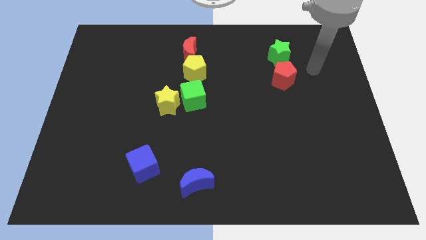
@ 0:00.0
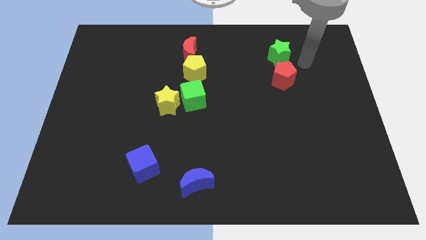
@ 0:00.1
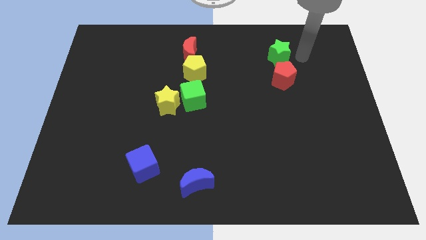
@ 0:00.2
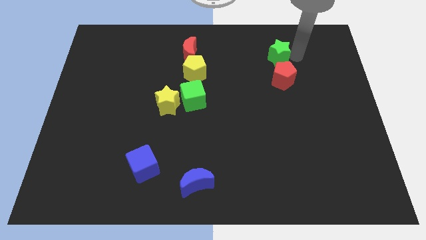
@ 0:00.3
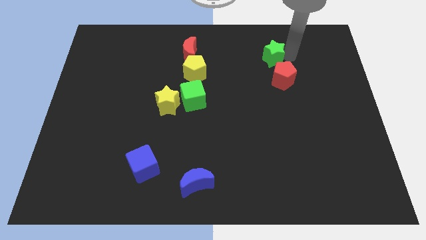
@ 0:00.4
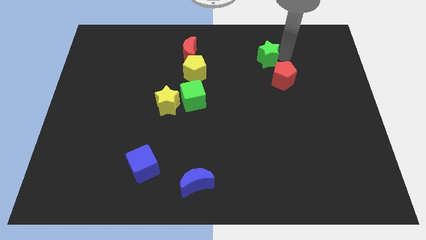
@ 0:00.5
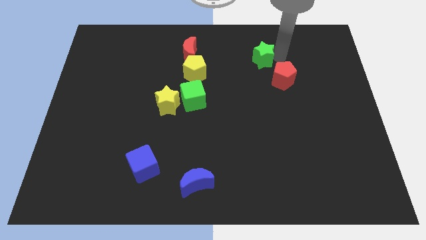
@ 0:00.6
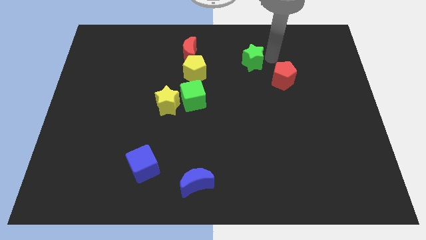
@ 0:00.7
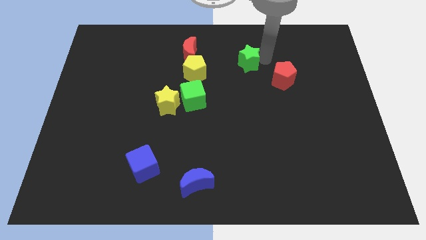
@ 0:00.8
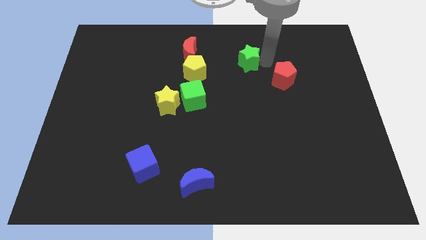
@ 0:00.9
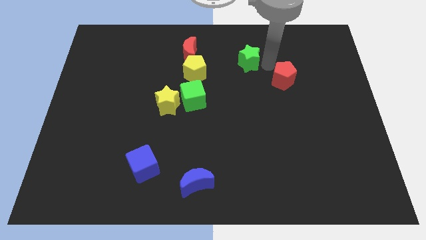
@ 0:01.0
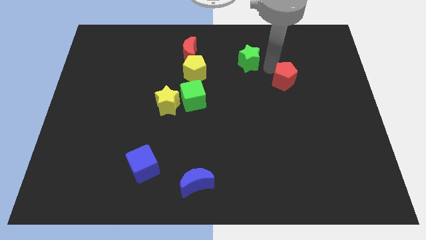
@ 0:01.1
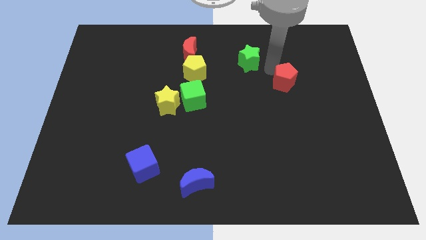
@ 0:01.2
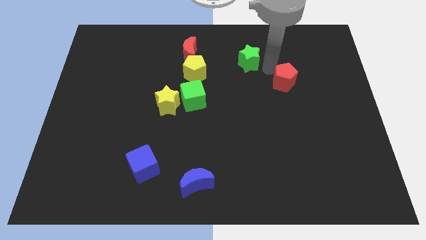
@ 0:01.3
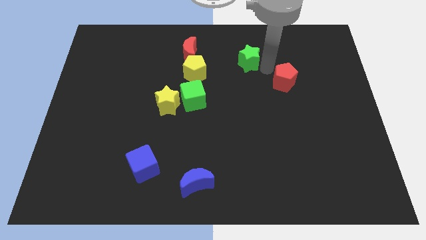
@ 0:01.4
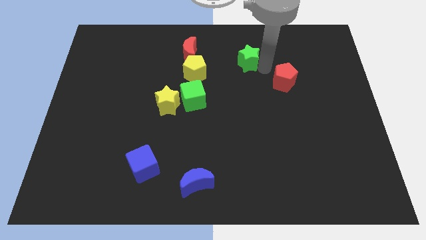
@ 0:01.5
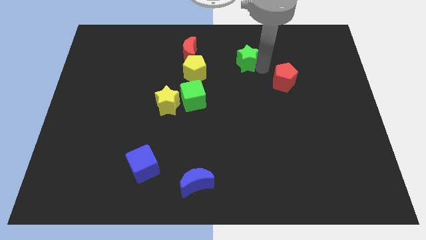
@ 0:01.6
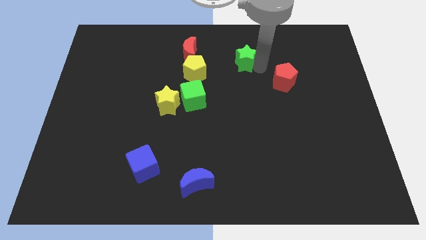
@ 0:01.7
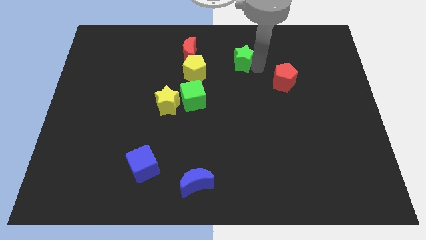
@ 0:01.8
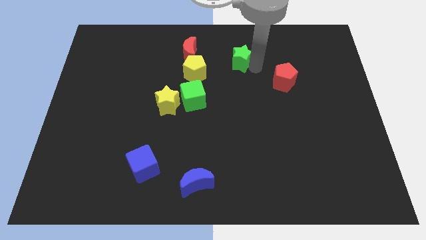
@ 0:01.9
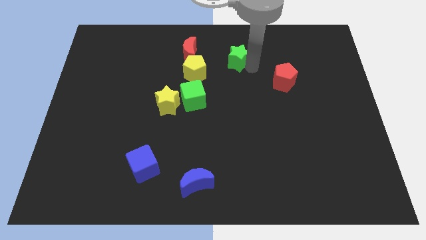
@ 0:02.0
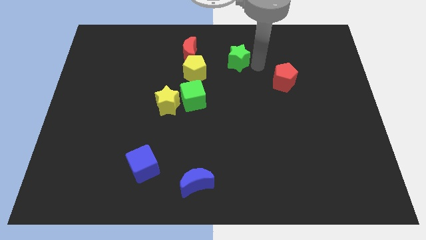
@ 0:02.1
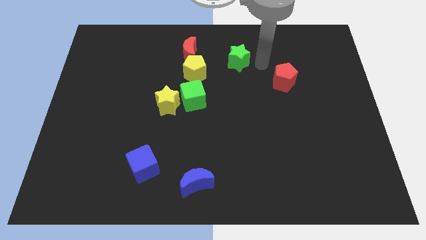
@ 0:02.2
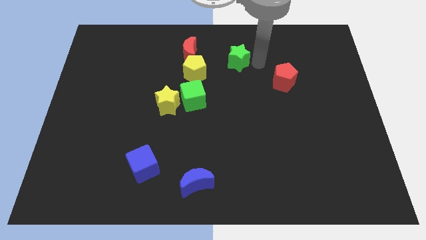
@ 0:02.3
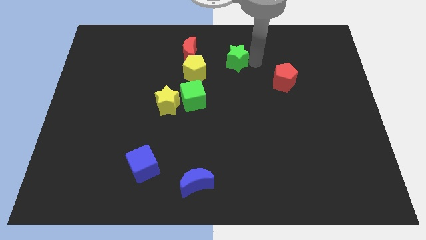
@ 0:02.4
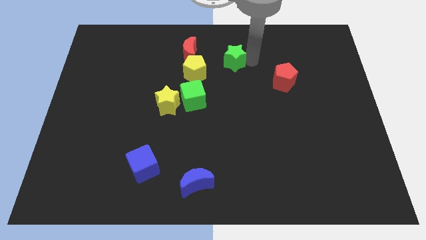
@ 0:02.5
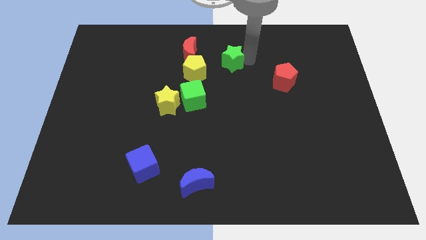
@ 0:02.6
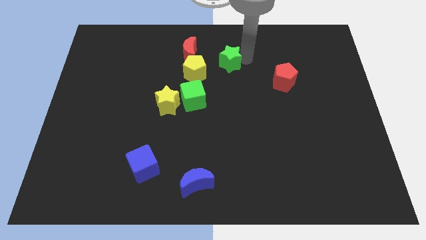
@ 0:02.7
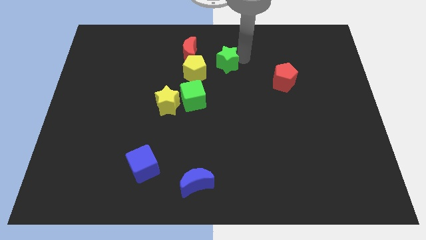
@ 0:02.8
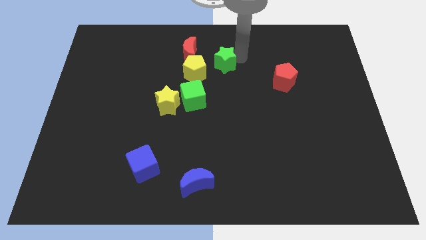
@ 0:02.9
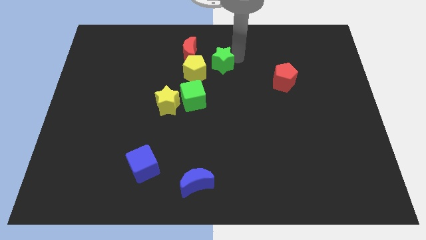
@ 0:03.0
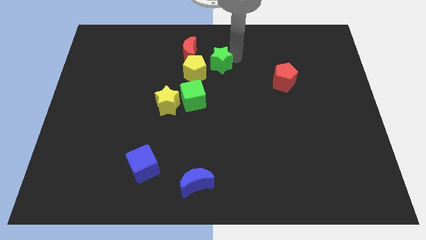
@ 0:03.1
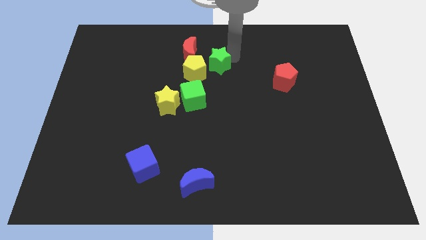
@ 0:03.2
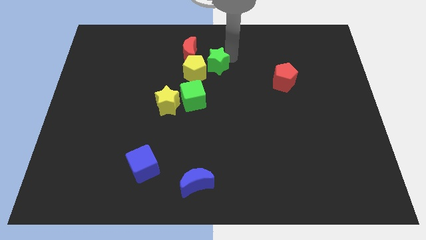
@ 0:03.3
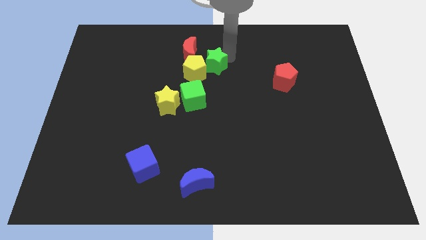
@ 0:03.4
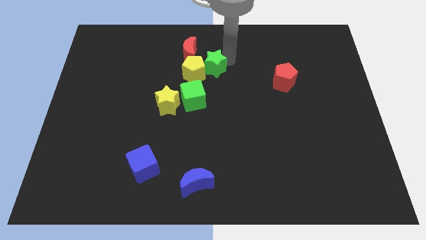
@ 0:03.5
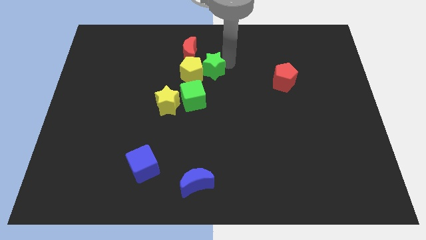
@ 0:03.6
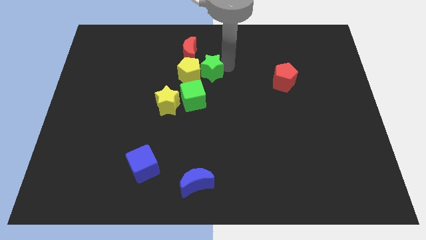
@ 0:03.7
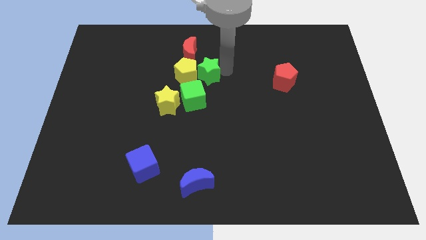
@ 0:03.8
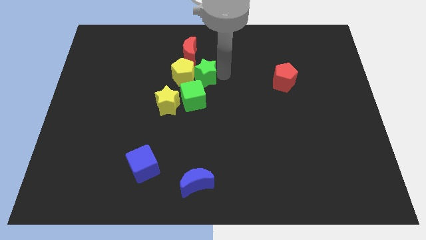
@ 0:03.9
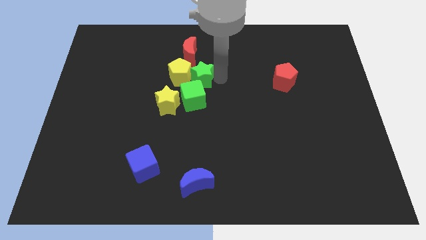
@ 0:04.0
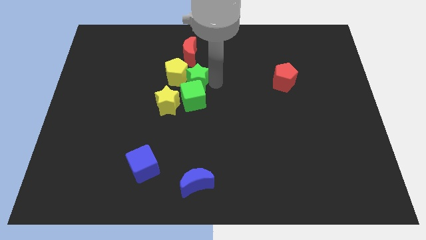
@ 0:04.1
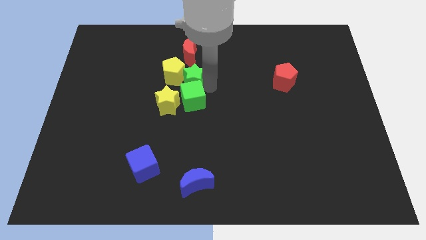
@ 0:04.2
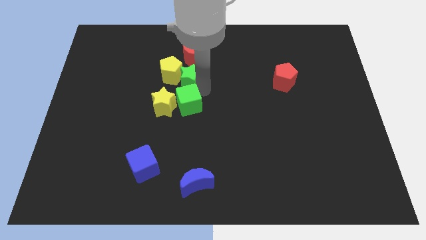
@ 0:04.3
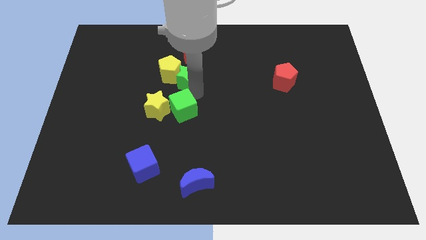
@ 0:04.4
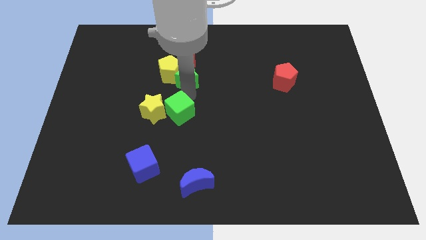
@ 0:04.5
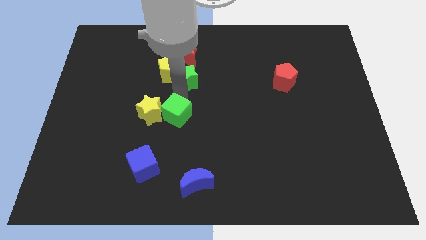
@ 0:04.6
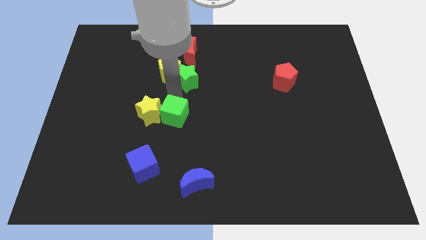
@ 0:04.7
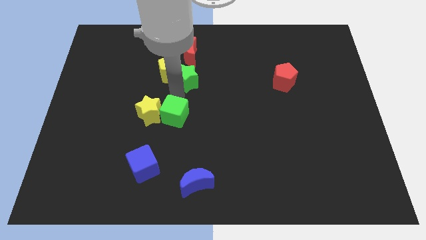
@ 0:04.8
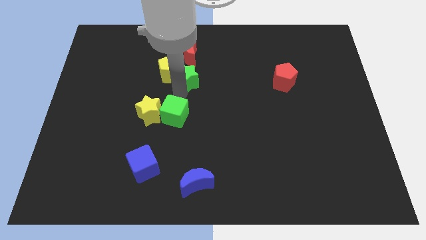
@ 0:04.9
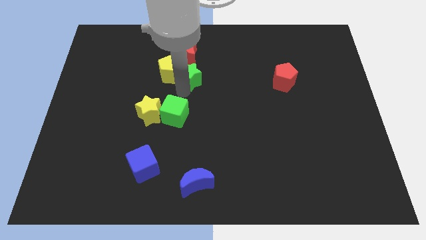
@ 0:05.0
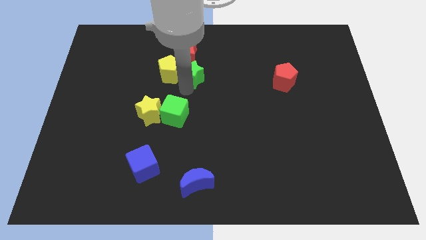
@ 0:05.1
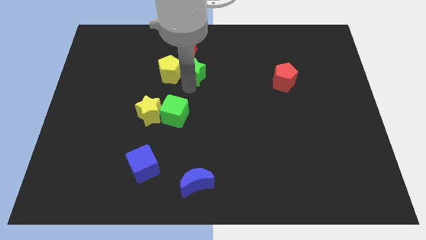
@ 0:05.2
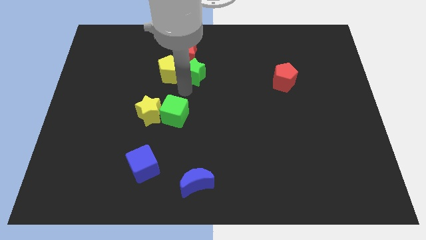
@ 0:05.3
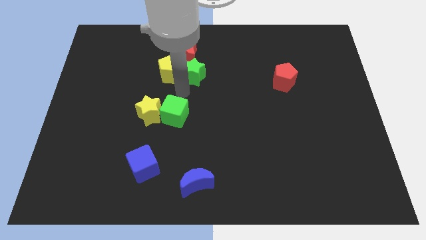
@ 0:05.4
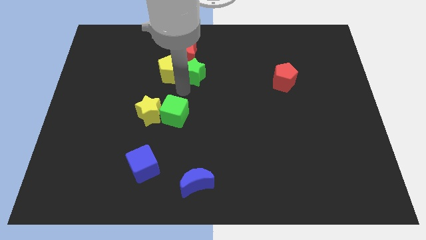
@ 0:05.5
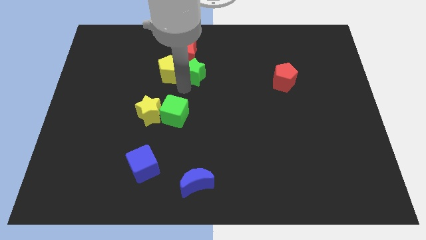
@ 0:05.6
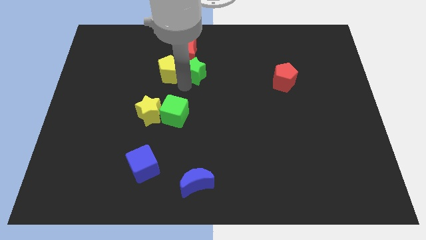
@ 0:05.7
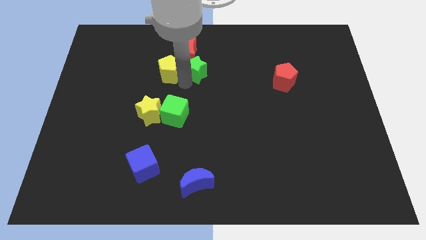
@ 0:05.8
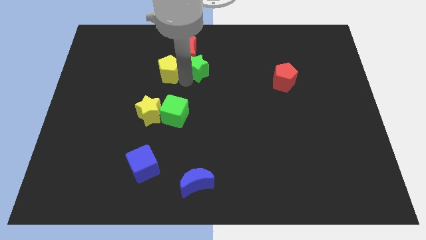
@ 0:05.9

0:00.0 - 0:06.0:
slide the green star next to the red moon

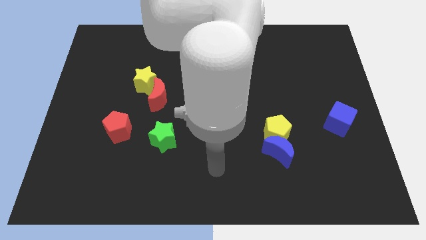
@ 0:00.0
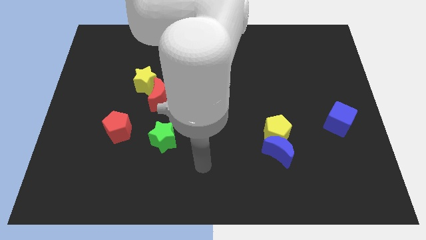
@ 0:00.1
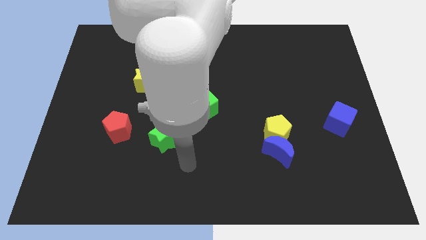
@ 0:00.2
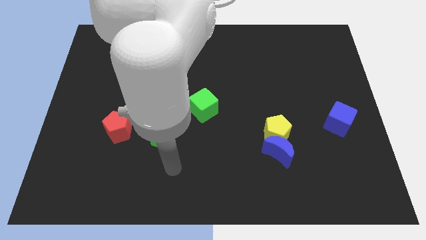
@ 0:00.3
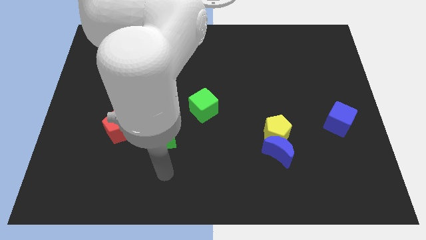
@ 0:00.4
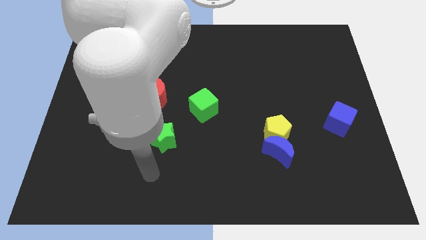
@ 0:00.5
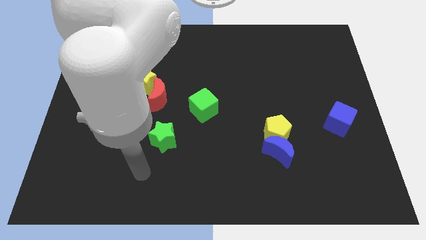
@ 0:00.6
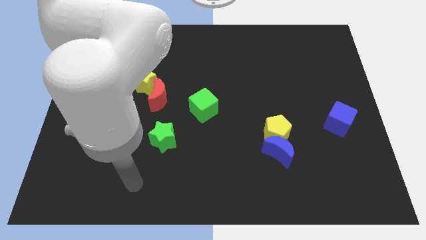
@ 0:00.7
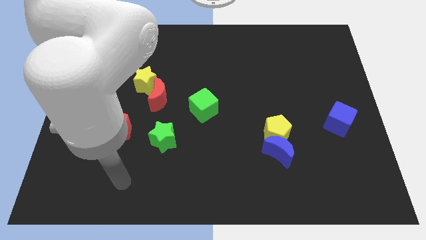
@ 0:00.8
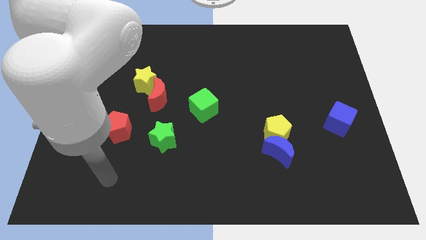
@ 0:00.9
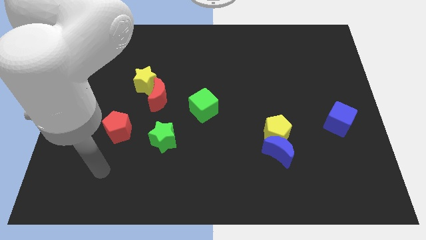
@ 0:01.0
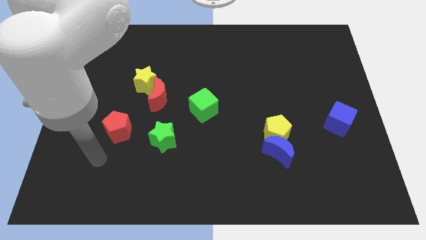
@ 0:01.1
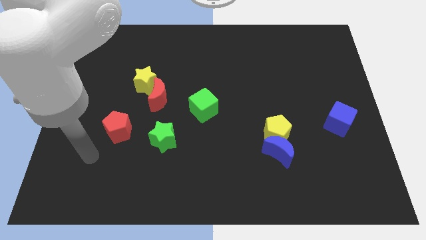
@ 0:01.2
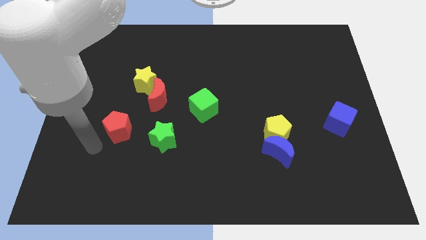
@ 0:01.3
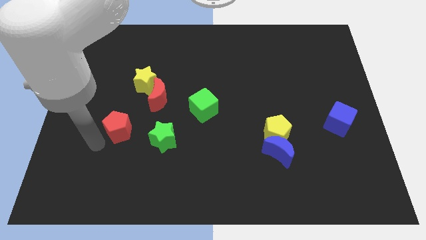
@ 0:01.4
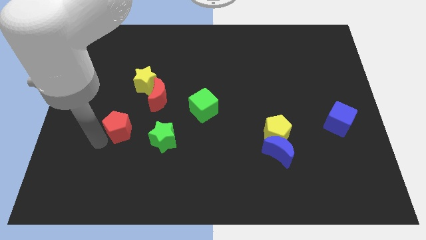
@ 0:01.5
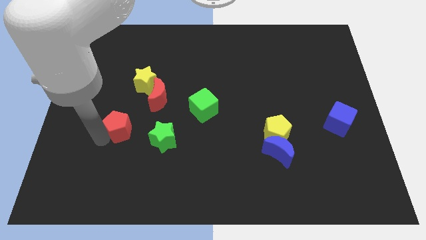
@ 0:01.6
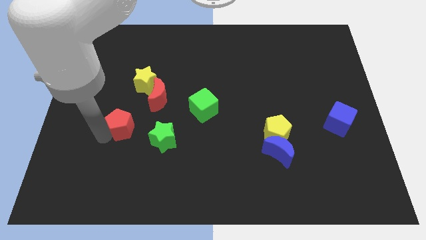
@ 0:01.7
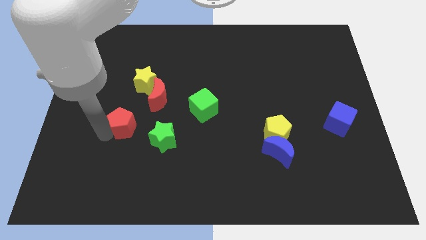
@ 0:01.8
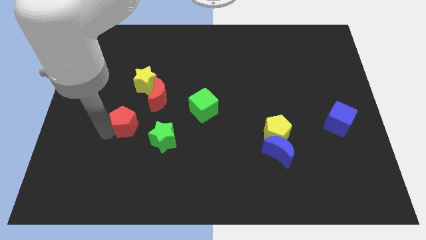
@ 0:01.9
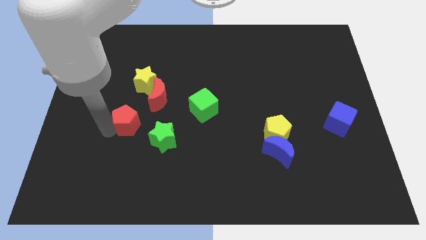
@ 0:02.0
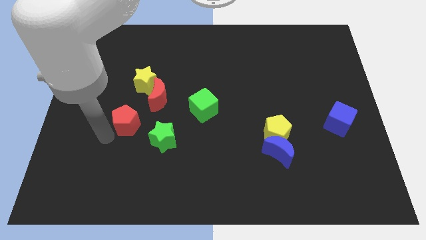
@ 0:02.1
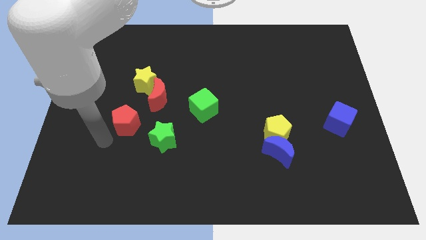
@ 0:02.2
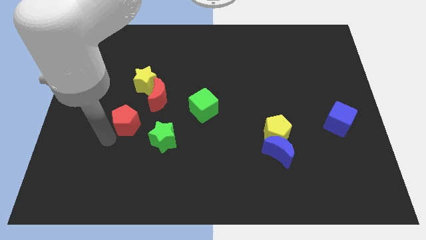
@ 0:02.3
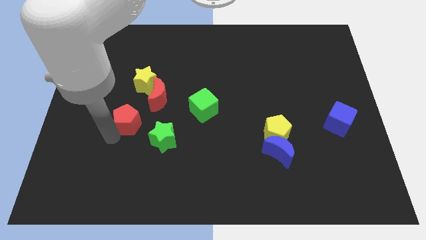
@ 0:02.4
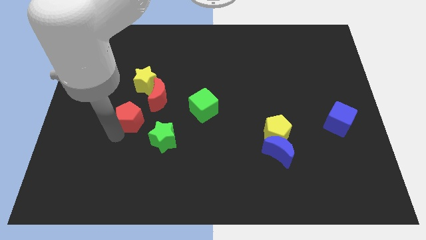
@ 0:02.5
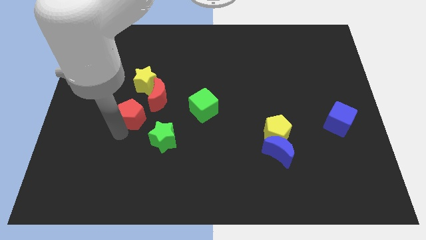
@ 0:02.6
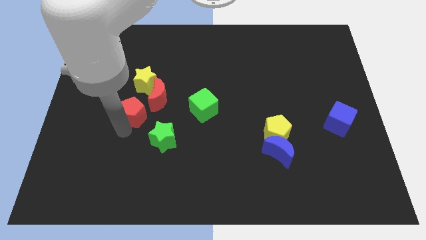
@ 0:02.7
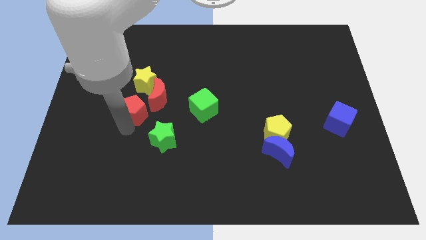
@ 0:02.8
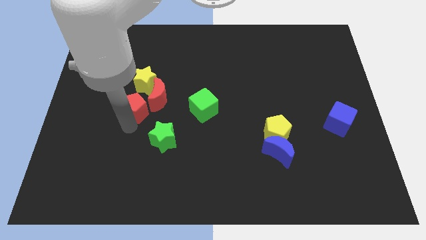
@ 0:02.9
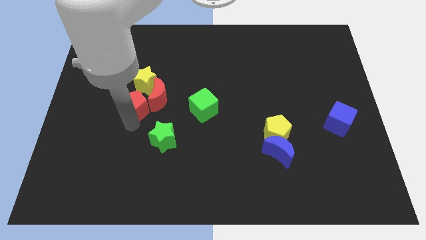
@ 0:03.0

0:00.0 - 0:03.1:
slide the red pentagon next to the red moon
